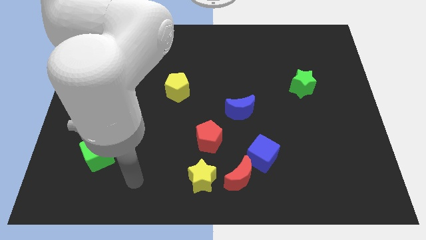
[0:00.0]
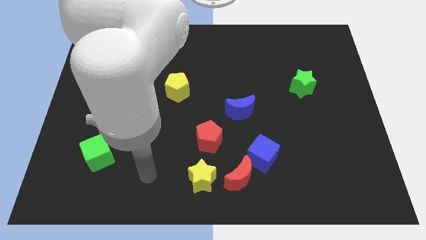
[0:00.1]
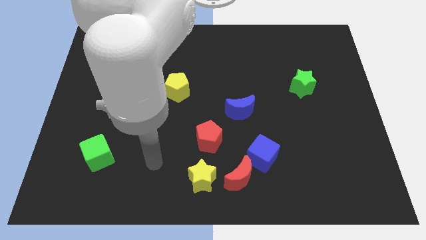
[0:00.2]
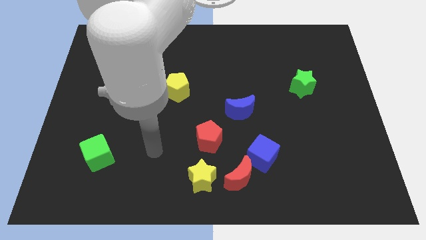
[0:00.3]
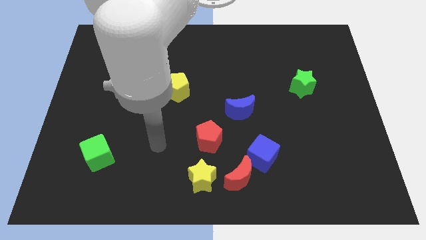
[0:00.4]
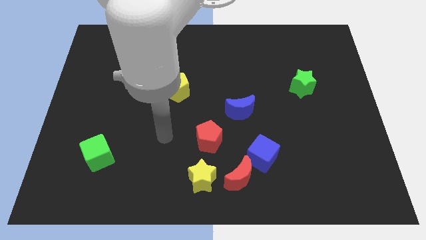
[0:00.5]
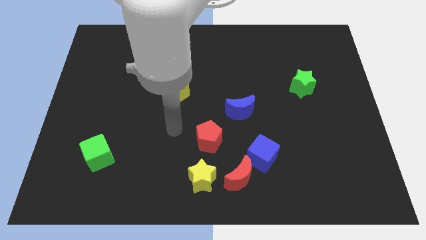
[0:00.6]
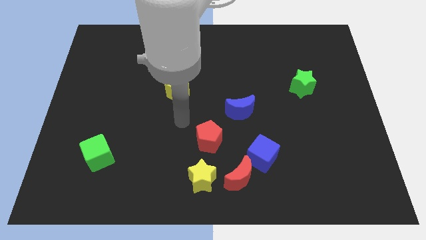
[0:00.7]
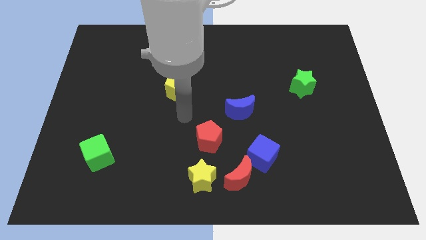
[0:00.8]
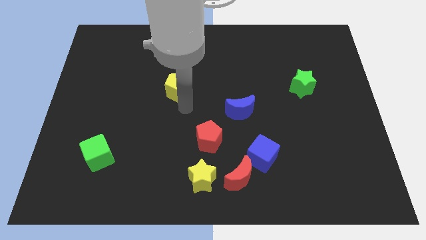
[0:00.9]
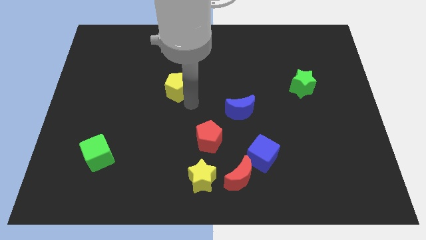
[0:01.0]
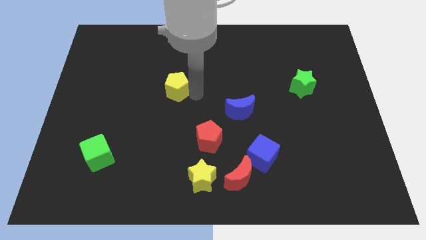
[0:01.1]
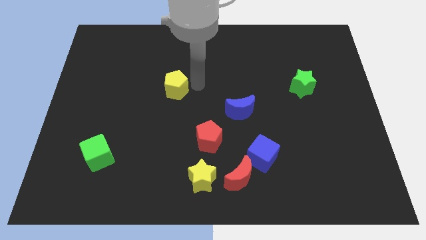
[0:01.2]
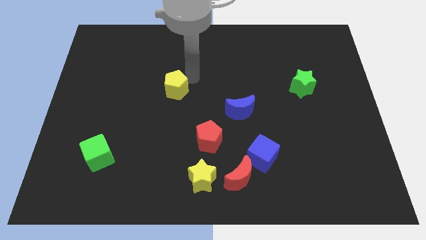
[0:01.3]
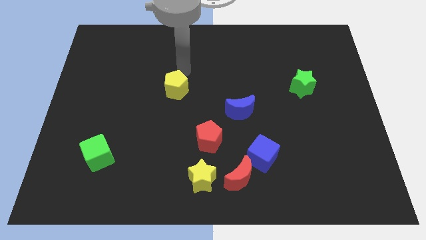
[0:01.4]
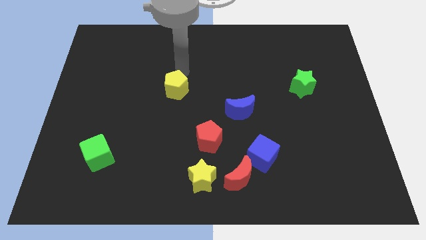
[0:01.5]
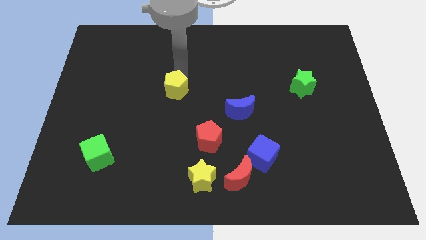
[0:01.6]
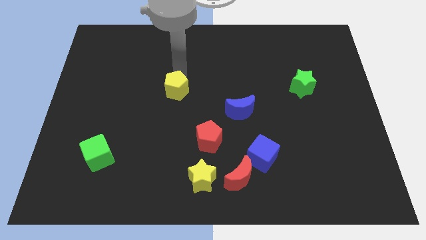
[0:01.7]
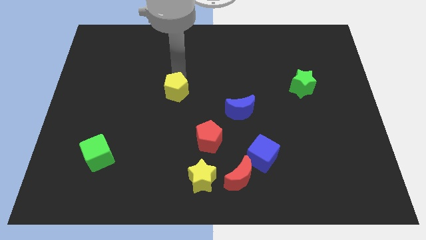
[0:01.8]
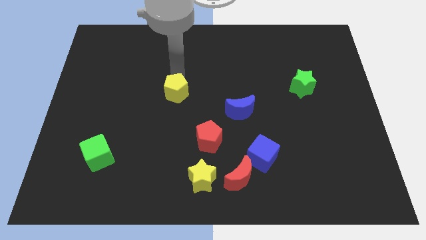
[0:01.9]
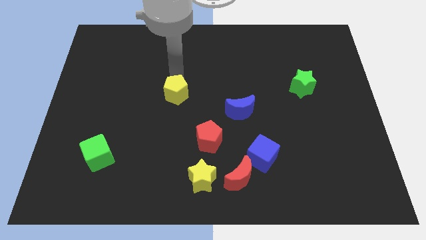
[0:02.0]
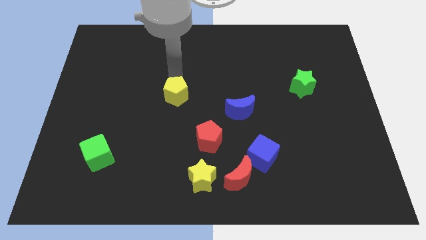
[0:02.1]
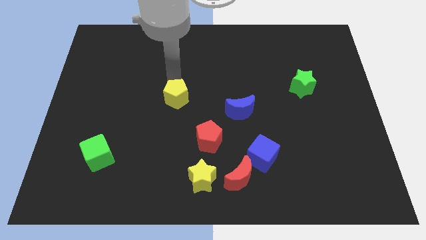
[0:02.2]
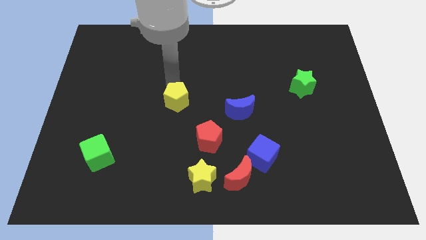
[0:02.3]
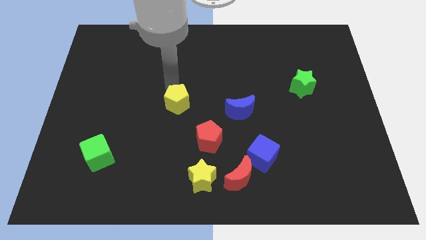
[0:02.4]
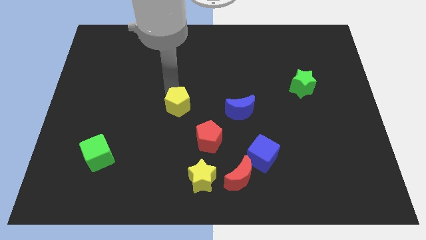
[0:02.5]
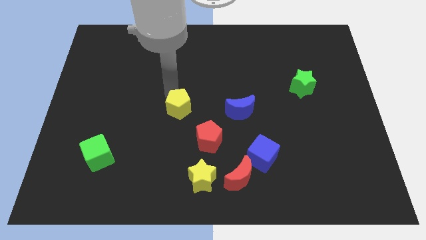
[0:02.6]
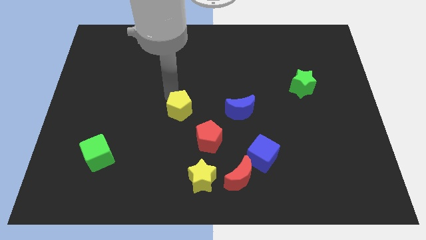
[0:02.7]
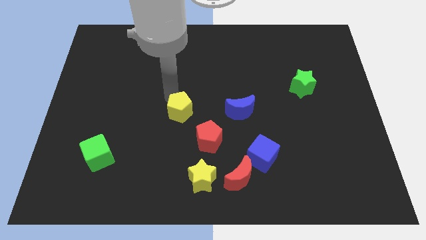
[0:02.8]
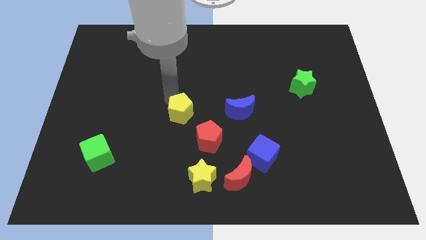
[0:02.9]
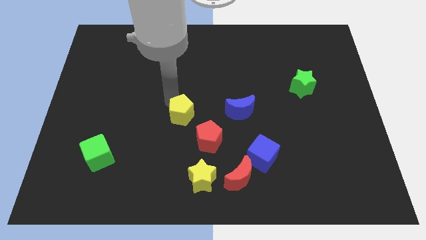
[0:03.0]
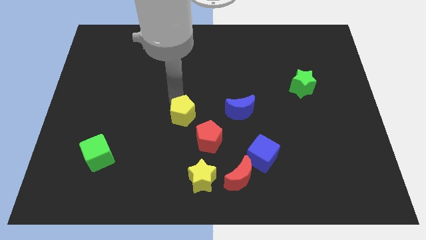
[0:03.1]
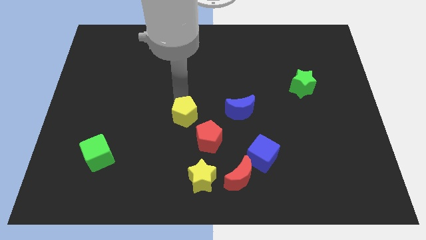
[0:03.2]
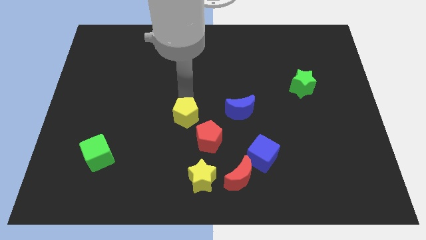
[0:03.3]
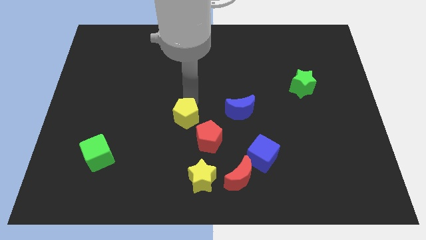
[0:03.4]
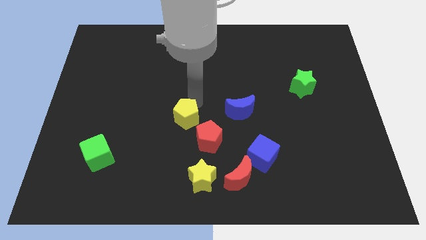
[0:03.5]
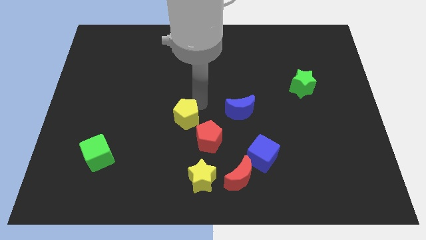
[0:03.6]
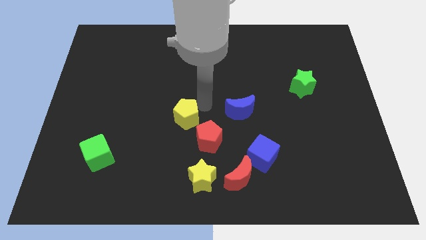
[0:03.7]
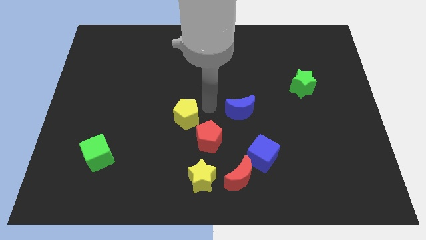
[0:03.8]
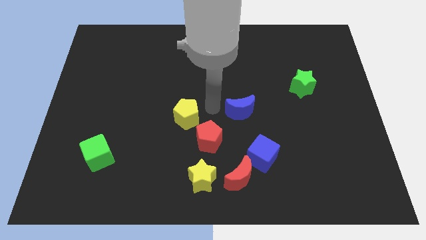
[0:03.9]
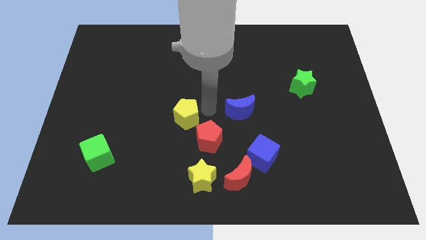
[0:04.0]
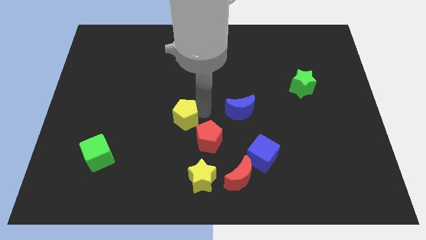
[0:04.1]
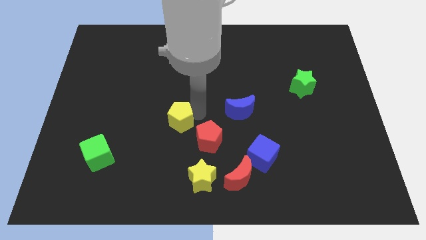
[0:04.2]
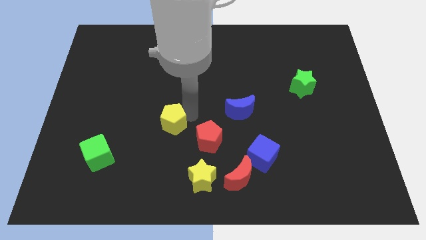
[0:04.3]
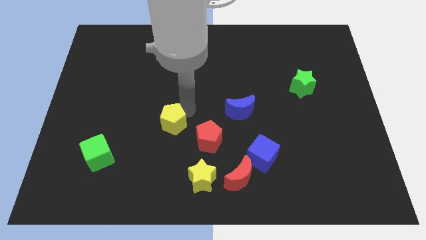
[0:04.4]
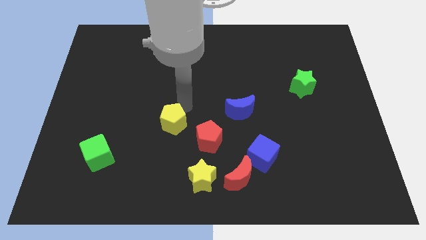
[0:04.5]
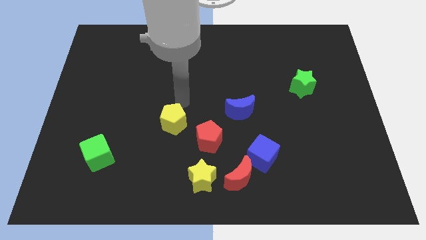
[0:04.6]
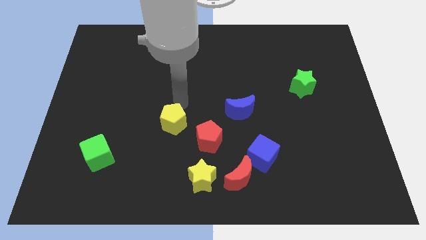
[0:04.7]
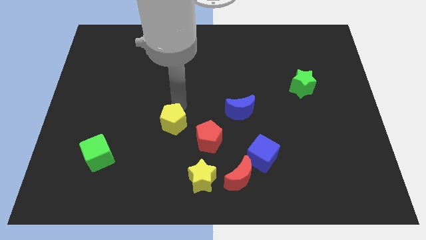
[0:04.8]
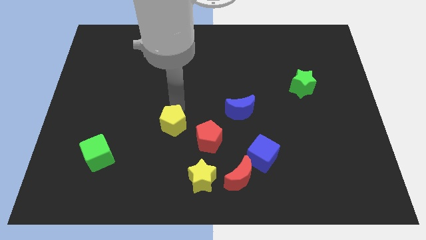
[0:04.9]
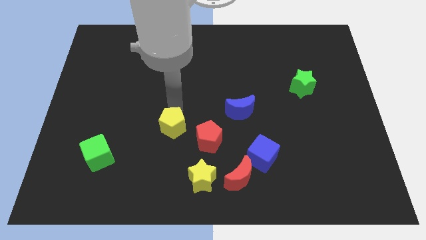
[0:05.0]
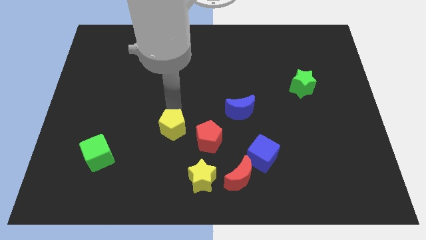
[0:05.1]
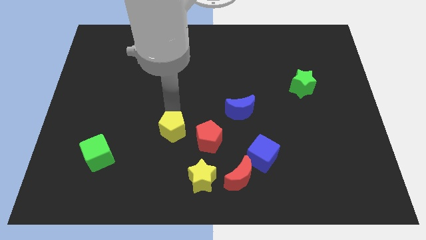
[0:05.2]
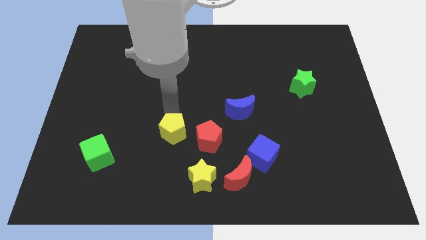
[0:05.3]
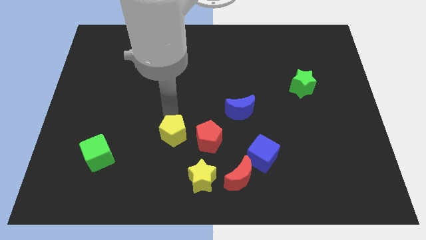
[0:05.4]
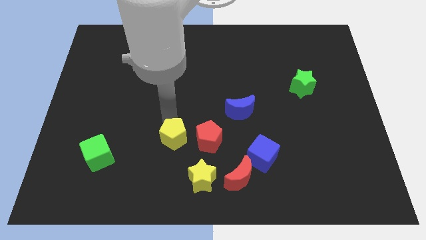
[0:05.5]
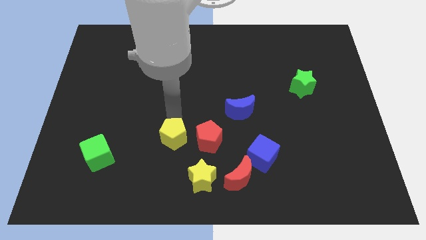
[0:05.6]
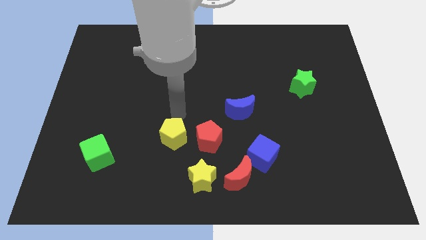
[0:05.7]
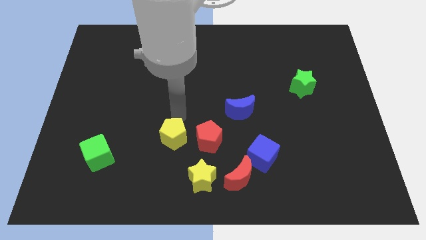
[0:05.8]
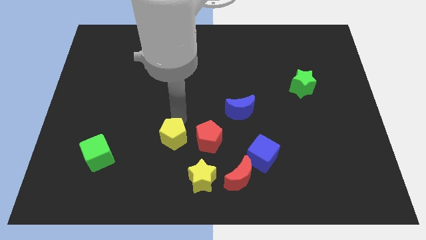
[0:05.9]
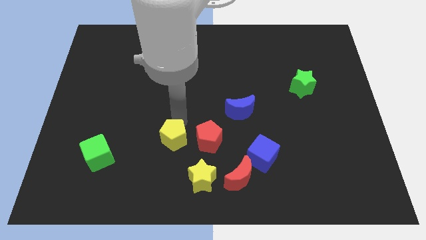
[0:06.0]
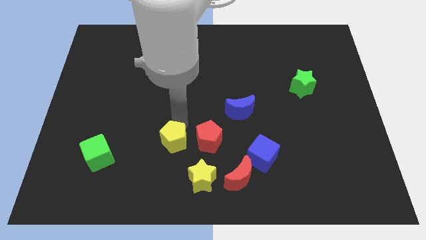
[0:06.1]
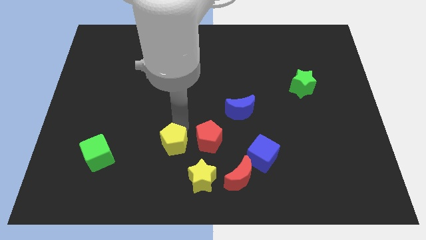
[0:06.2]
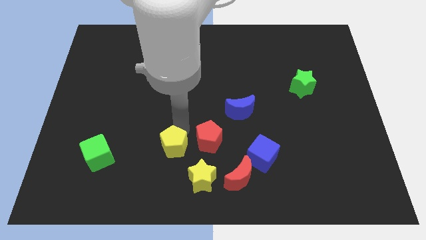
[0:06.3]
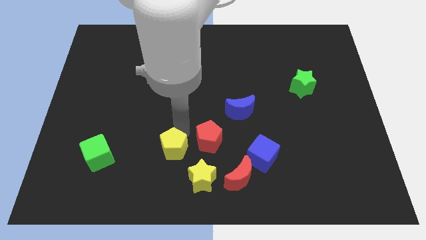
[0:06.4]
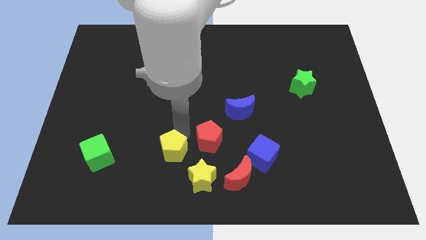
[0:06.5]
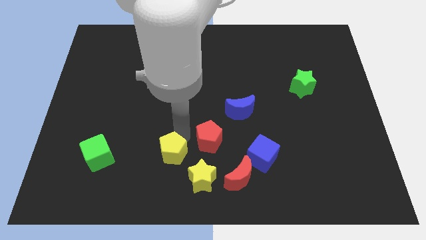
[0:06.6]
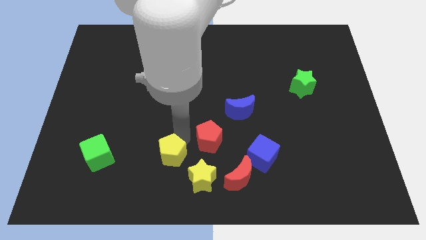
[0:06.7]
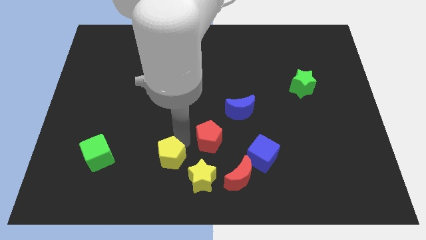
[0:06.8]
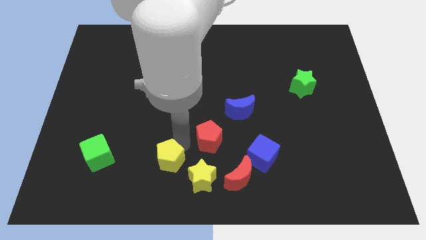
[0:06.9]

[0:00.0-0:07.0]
move the yellow pentagon to the left side of the yellow star

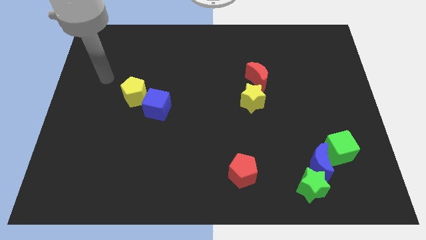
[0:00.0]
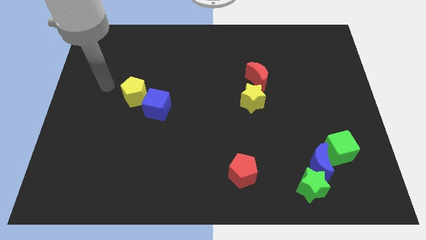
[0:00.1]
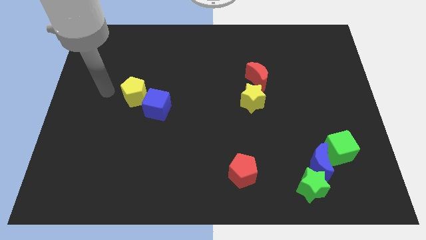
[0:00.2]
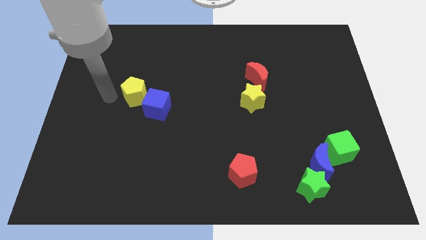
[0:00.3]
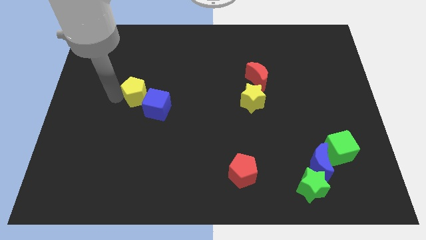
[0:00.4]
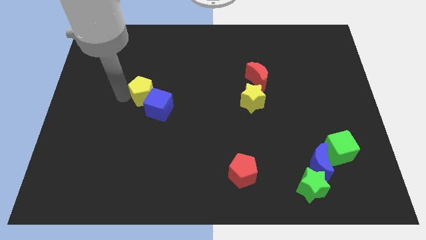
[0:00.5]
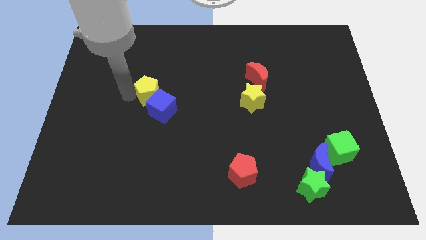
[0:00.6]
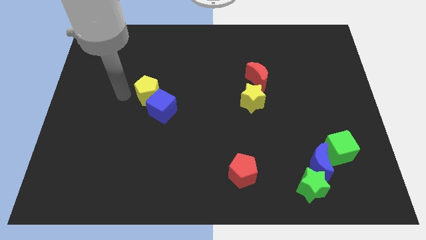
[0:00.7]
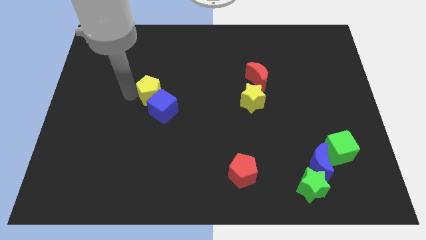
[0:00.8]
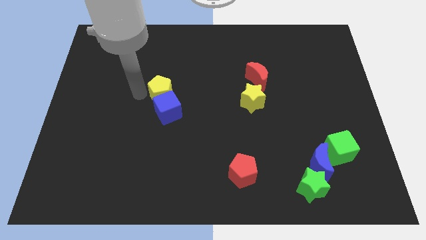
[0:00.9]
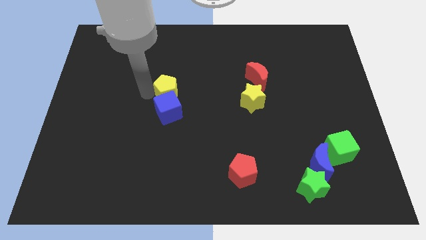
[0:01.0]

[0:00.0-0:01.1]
push the yellow pentagon to the top right side of the blue cube
